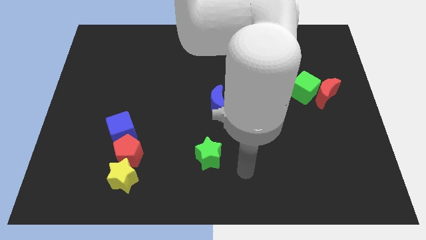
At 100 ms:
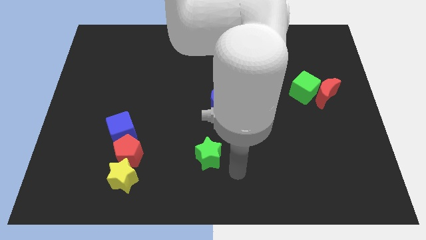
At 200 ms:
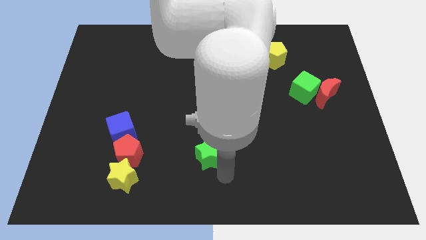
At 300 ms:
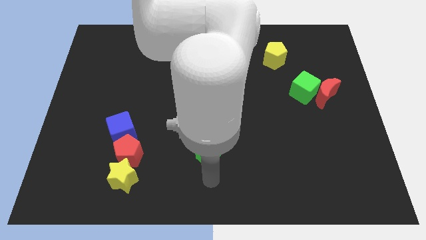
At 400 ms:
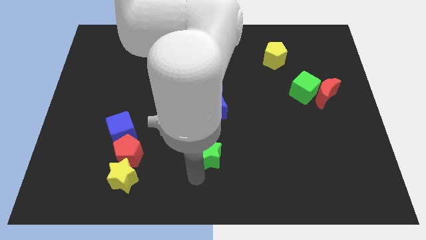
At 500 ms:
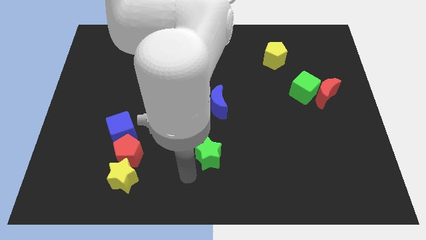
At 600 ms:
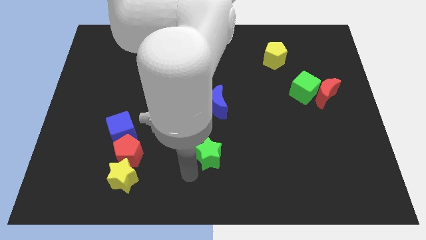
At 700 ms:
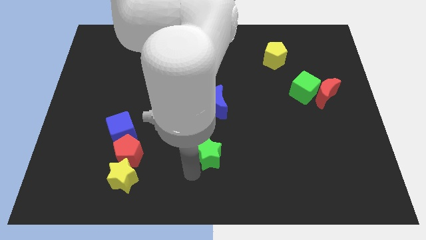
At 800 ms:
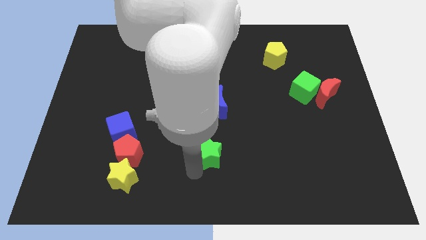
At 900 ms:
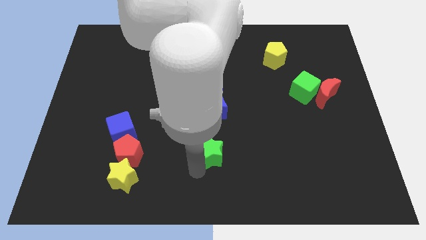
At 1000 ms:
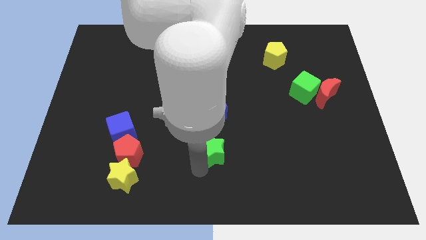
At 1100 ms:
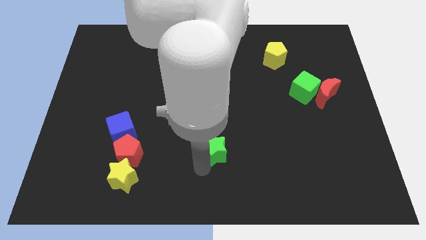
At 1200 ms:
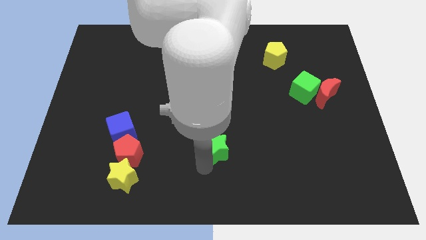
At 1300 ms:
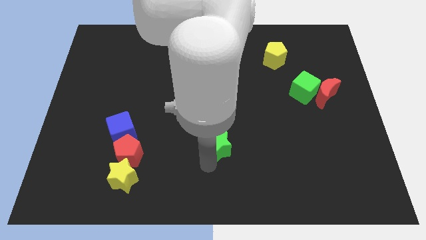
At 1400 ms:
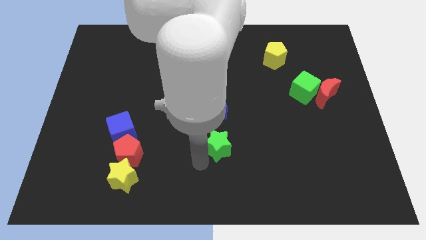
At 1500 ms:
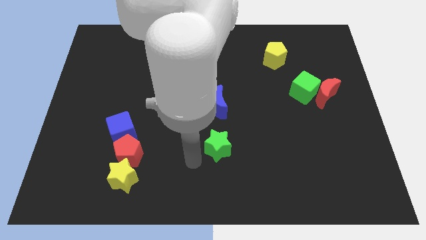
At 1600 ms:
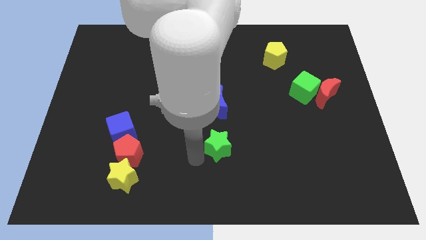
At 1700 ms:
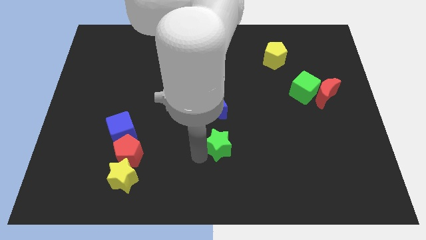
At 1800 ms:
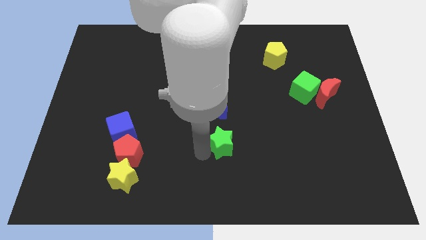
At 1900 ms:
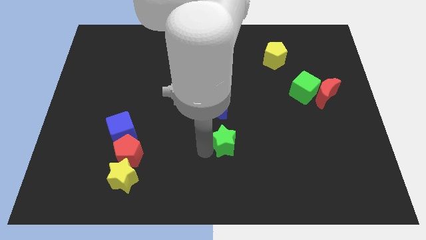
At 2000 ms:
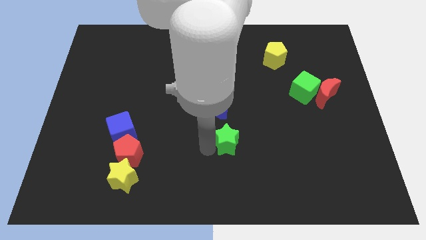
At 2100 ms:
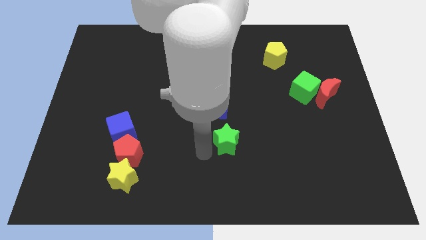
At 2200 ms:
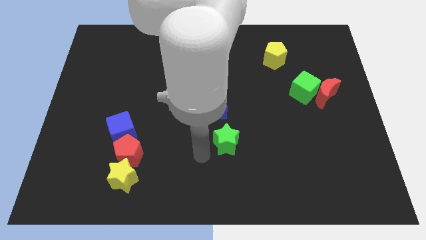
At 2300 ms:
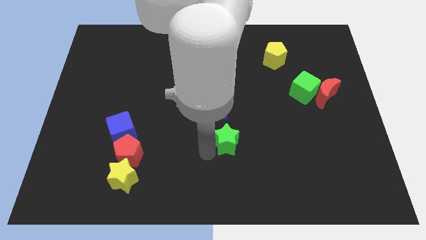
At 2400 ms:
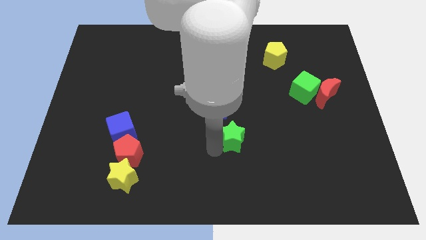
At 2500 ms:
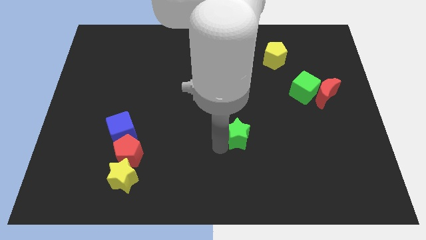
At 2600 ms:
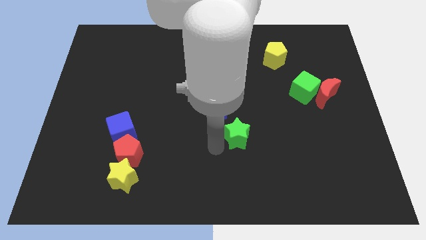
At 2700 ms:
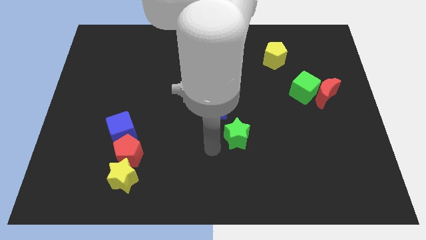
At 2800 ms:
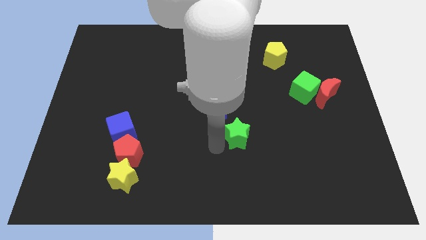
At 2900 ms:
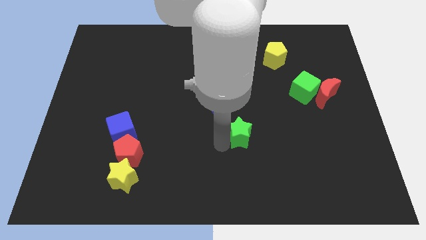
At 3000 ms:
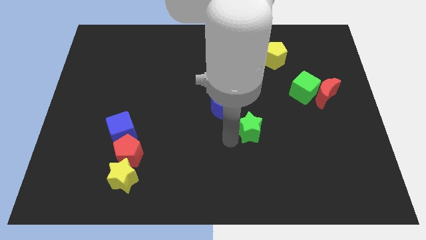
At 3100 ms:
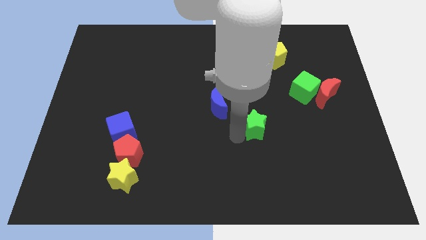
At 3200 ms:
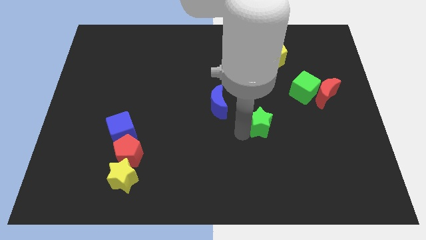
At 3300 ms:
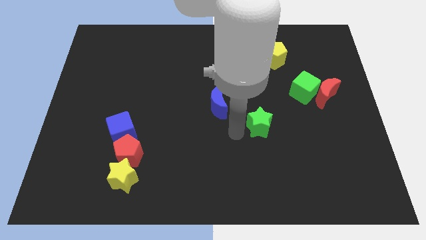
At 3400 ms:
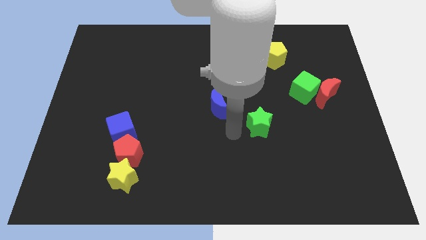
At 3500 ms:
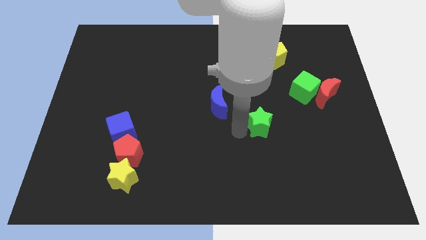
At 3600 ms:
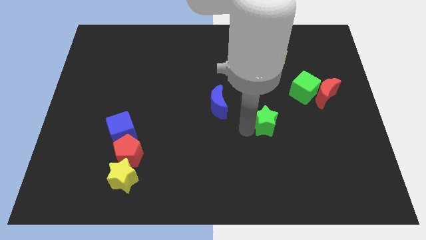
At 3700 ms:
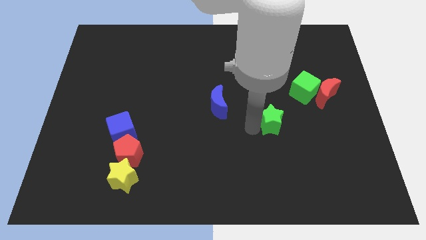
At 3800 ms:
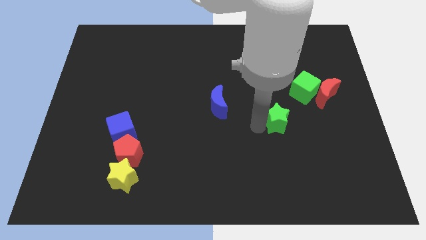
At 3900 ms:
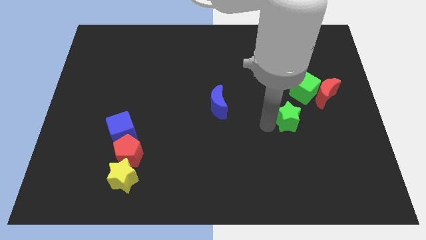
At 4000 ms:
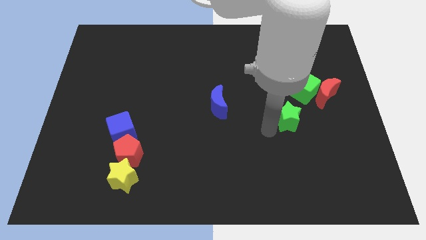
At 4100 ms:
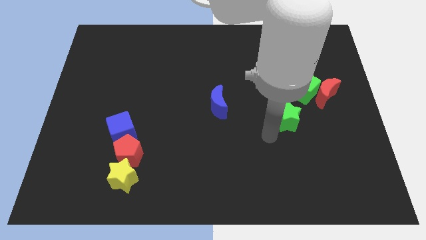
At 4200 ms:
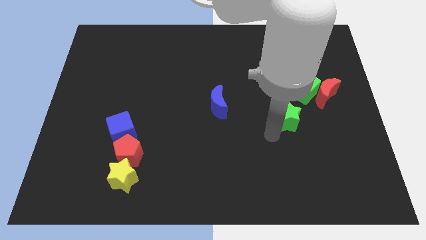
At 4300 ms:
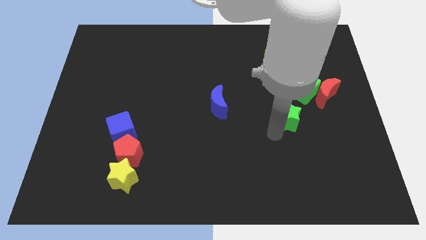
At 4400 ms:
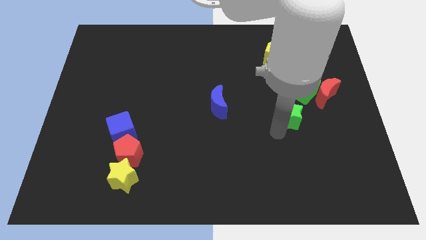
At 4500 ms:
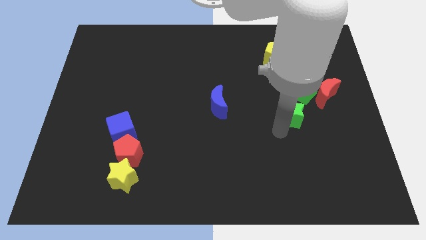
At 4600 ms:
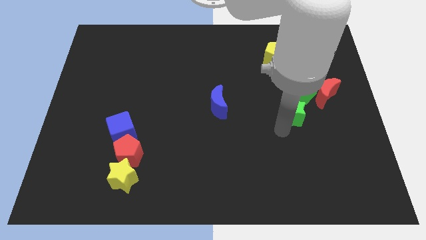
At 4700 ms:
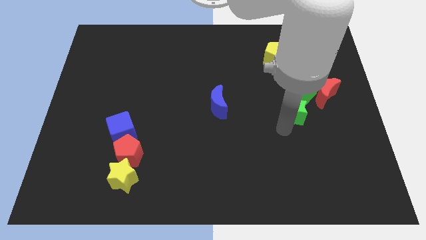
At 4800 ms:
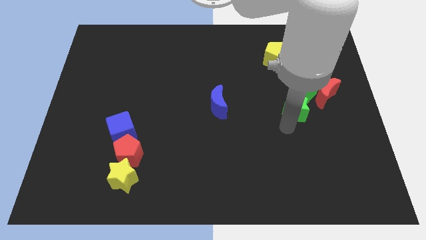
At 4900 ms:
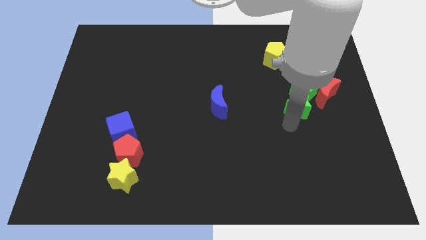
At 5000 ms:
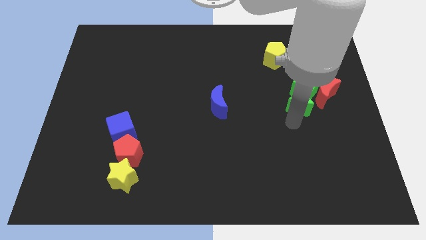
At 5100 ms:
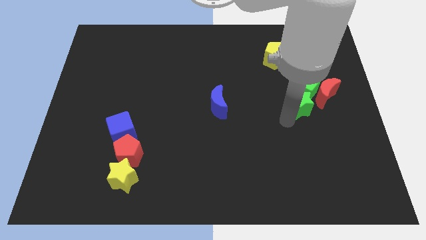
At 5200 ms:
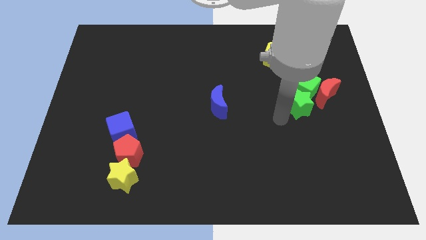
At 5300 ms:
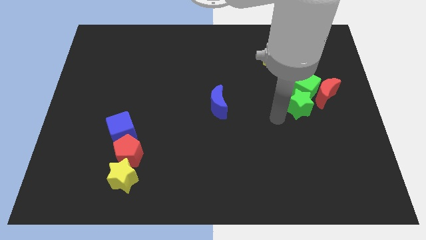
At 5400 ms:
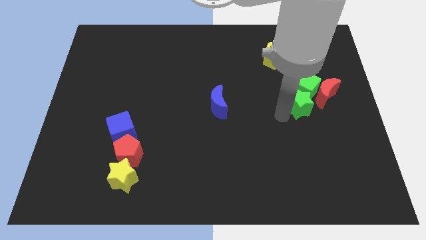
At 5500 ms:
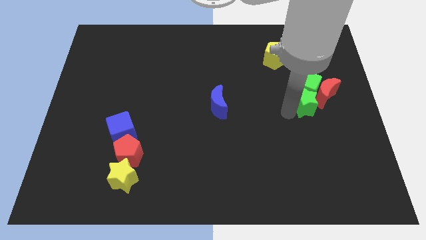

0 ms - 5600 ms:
push the green star close to the red moon

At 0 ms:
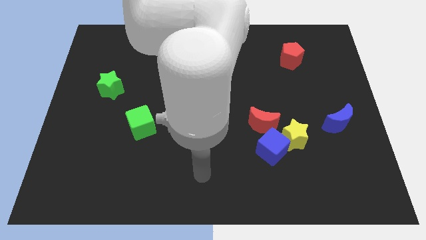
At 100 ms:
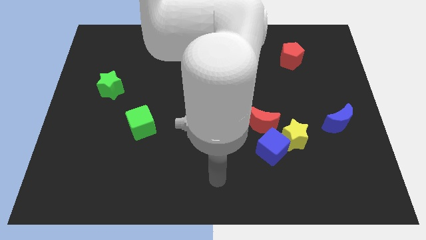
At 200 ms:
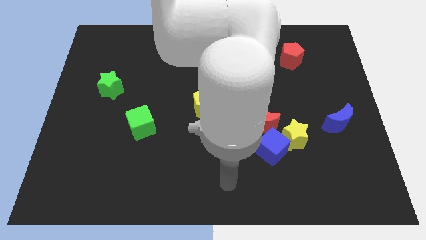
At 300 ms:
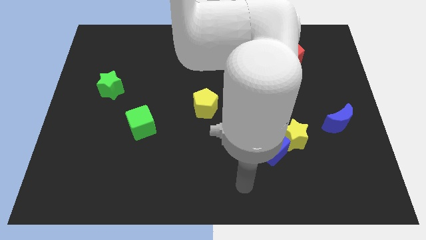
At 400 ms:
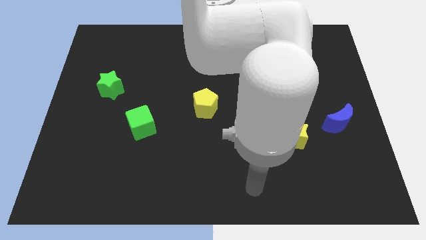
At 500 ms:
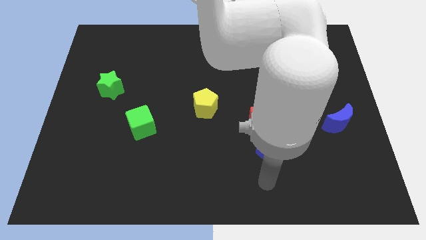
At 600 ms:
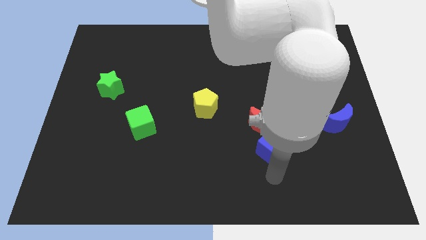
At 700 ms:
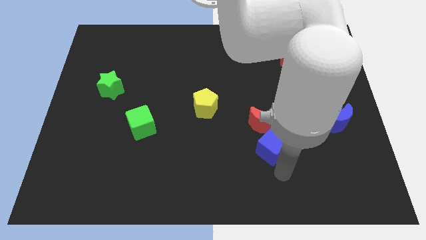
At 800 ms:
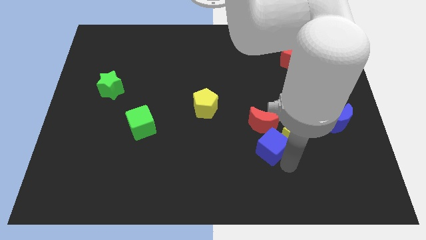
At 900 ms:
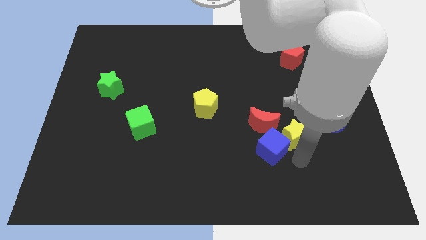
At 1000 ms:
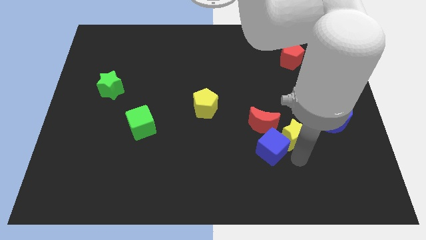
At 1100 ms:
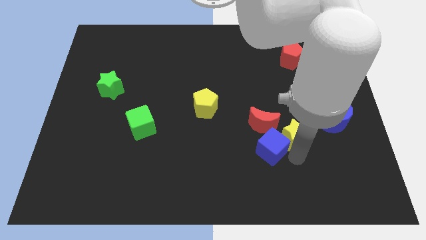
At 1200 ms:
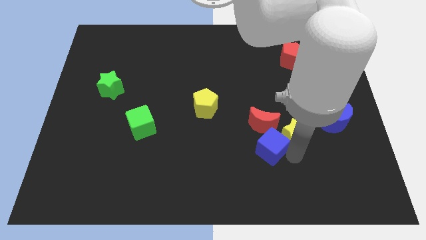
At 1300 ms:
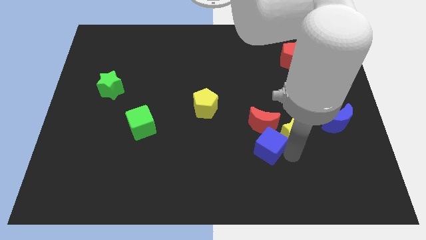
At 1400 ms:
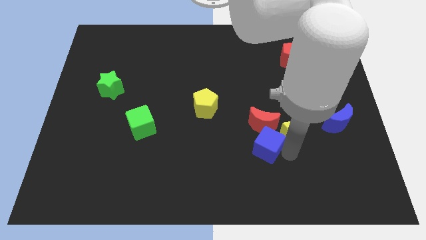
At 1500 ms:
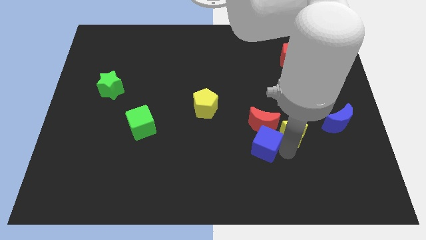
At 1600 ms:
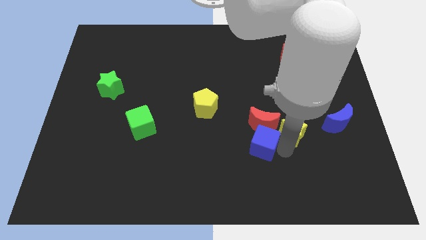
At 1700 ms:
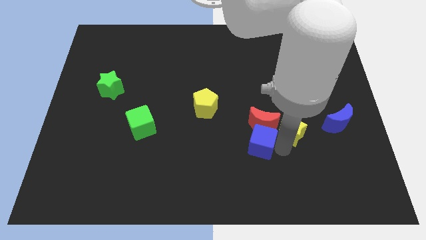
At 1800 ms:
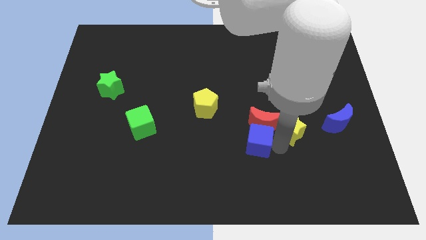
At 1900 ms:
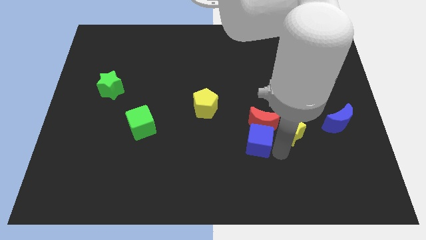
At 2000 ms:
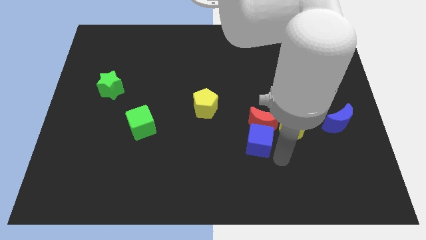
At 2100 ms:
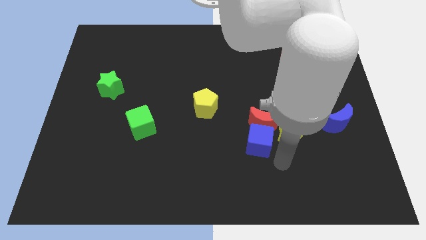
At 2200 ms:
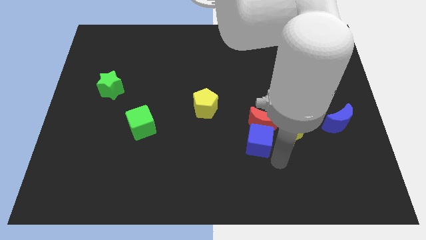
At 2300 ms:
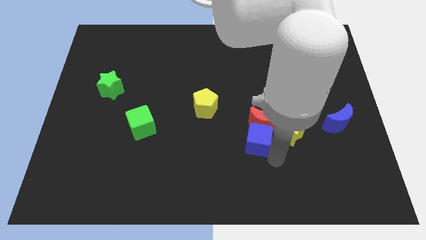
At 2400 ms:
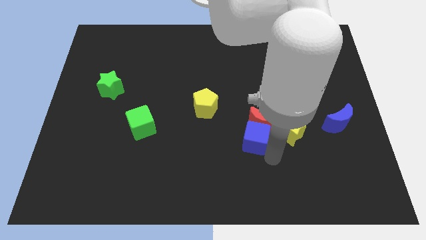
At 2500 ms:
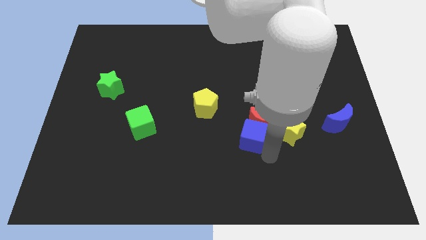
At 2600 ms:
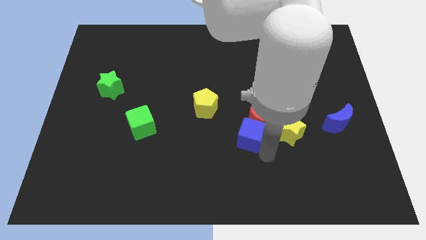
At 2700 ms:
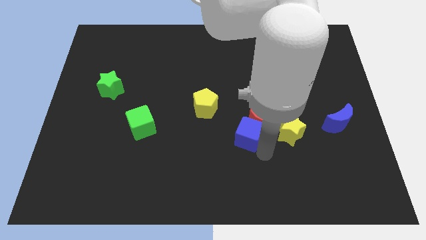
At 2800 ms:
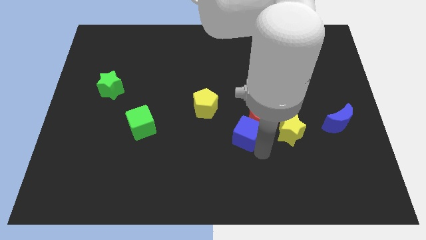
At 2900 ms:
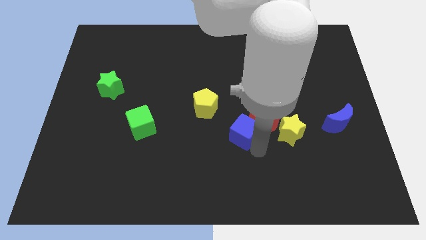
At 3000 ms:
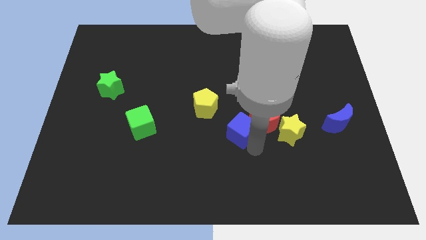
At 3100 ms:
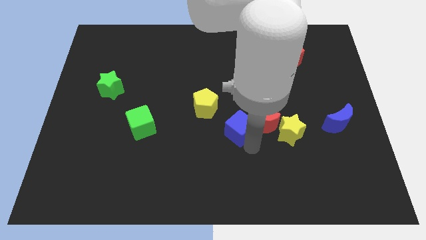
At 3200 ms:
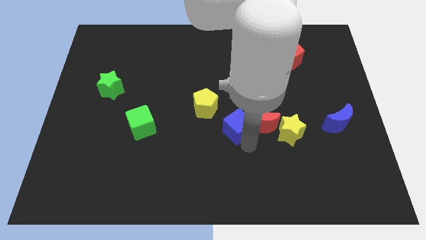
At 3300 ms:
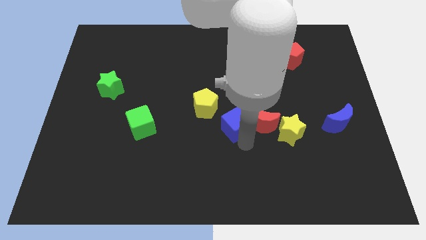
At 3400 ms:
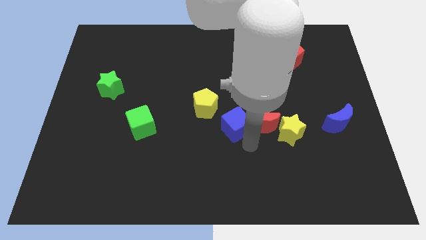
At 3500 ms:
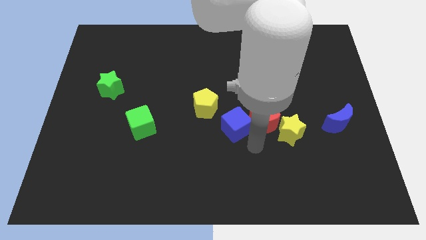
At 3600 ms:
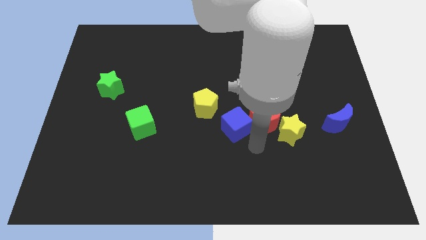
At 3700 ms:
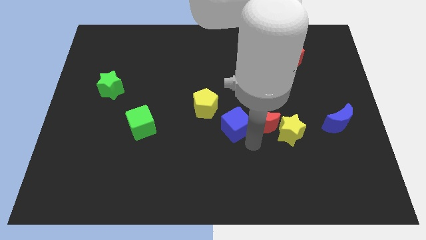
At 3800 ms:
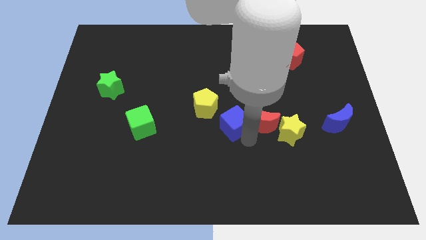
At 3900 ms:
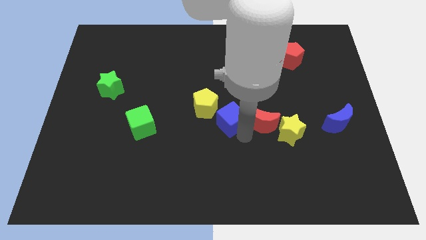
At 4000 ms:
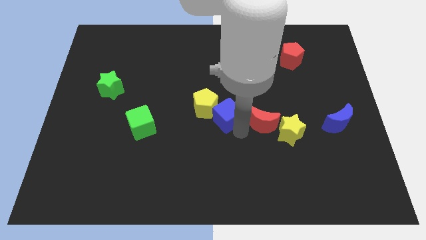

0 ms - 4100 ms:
slide the blue cube towards the yellow pentagon
